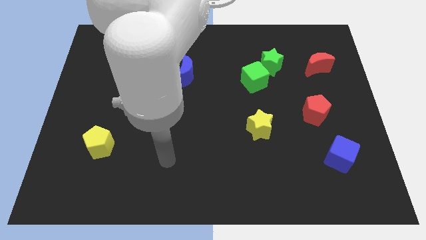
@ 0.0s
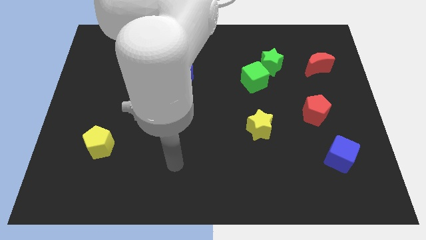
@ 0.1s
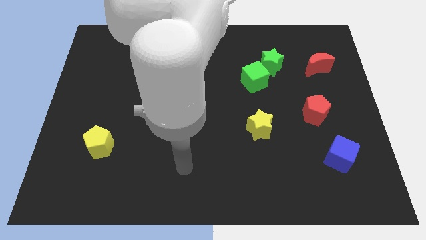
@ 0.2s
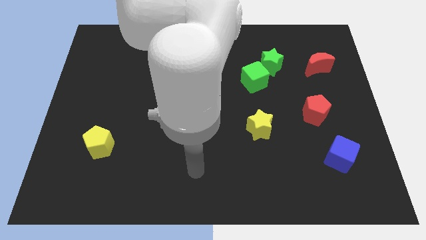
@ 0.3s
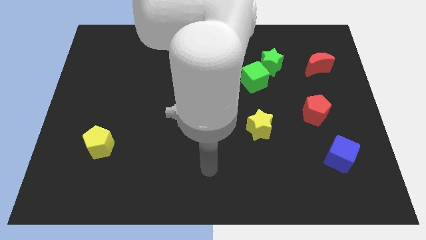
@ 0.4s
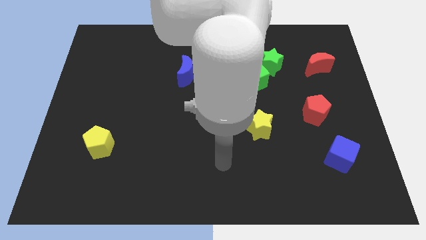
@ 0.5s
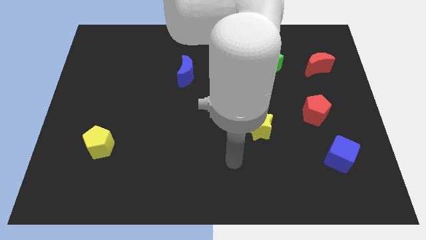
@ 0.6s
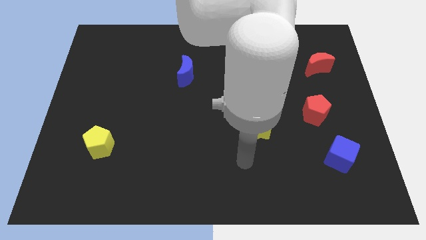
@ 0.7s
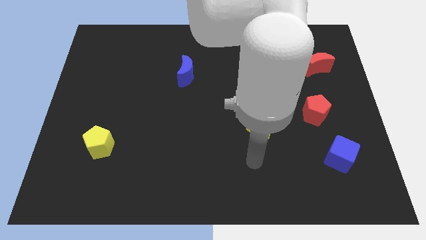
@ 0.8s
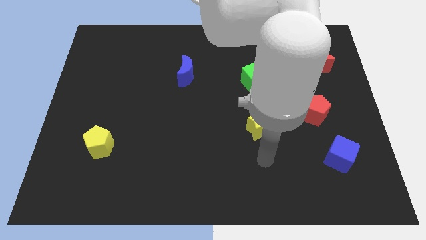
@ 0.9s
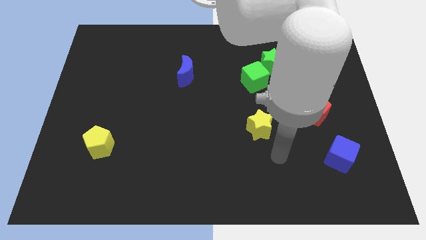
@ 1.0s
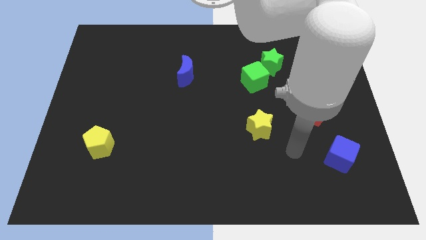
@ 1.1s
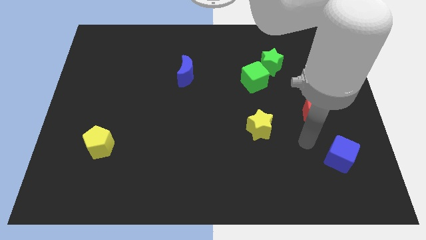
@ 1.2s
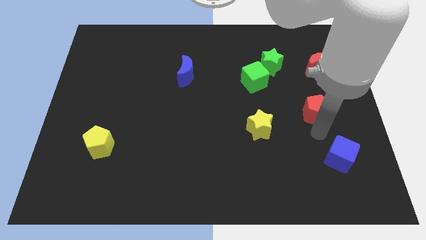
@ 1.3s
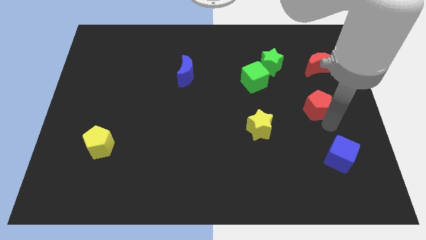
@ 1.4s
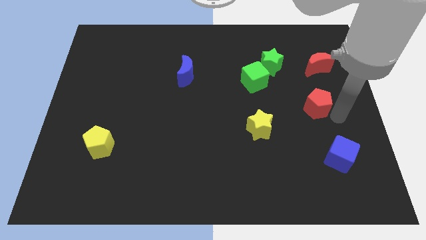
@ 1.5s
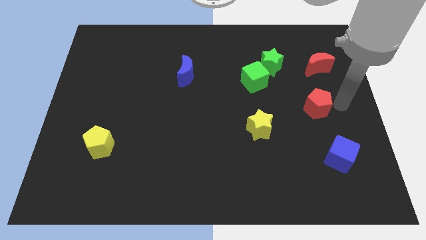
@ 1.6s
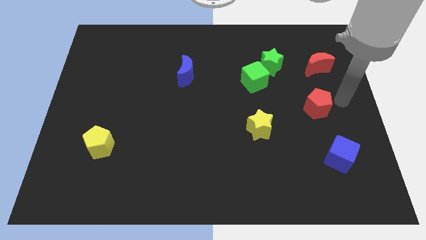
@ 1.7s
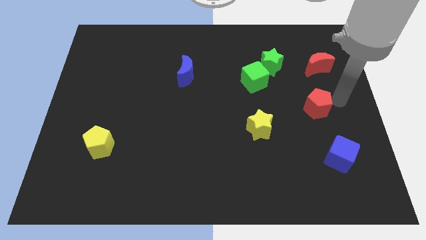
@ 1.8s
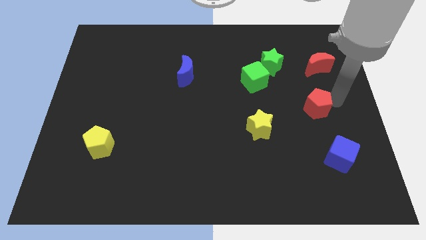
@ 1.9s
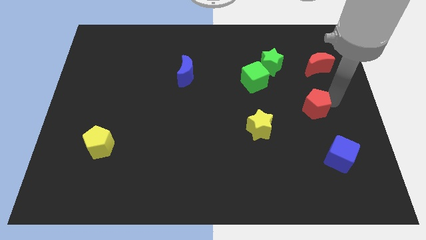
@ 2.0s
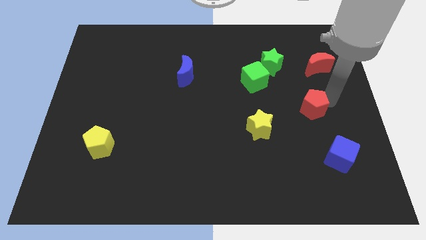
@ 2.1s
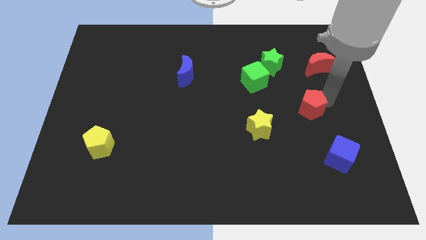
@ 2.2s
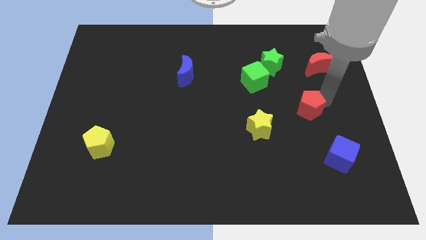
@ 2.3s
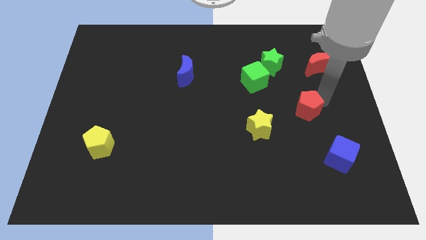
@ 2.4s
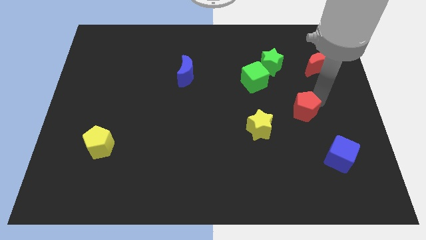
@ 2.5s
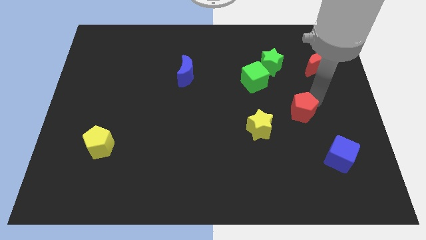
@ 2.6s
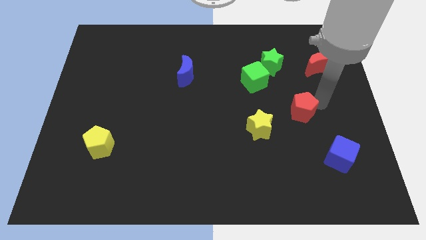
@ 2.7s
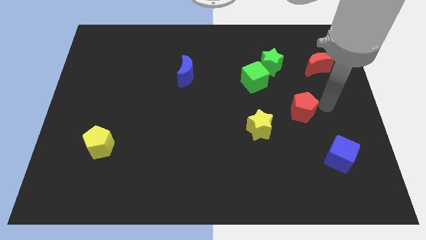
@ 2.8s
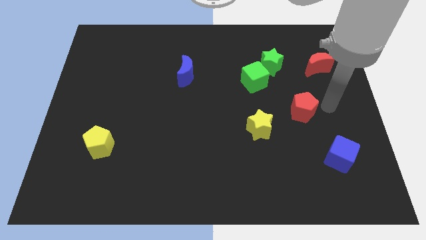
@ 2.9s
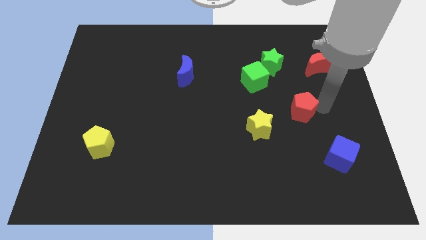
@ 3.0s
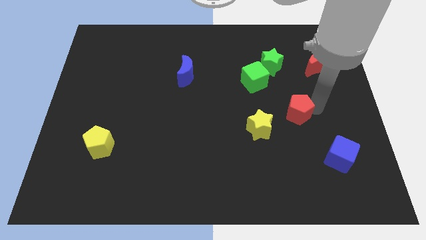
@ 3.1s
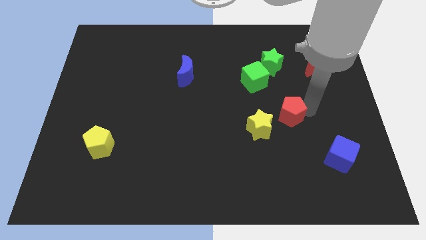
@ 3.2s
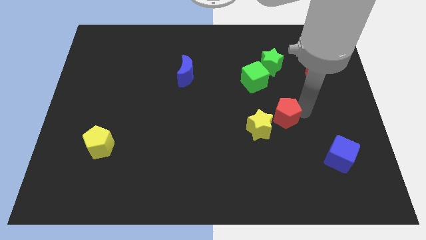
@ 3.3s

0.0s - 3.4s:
push the red pentagon left a bit

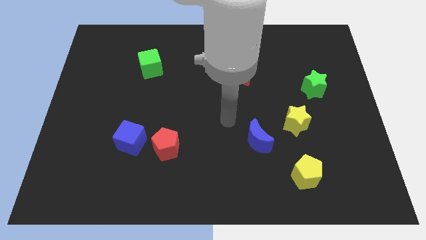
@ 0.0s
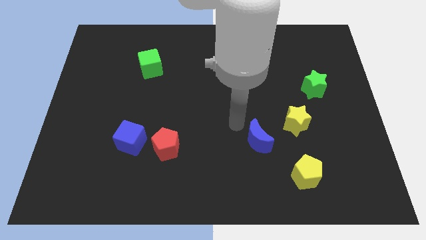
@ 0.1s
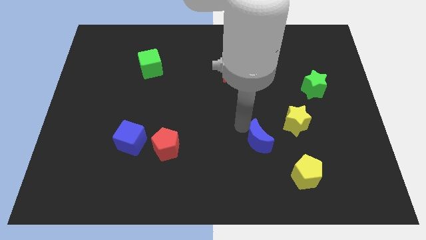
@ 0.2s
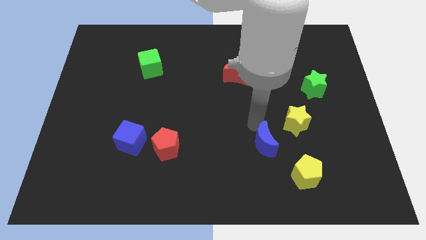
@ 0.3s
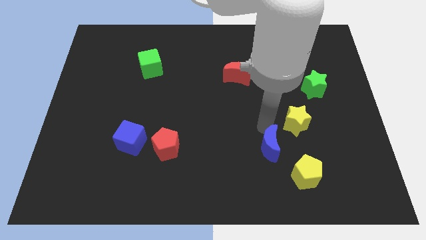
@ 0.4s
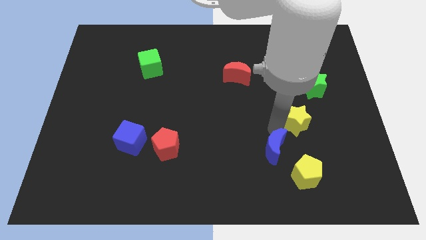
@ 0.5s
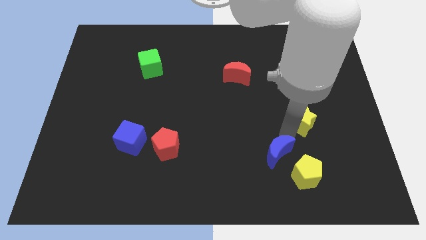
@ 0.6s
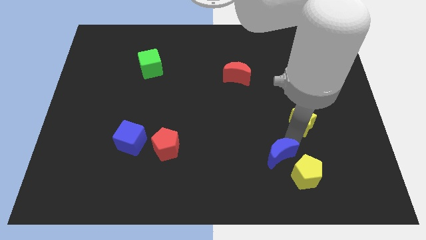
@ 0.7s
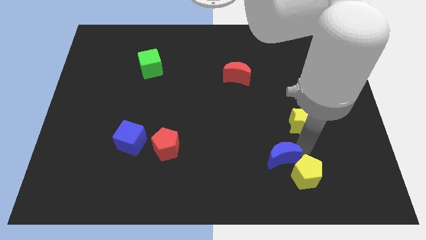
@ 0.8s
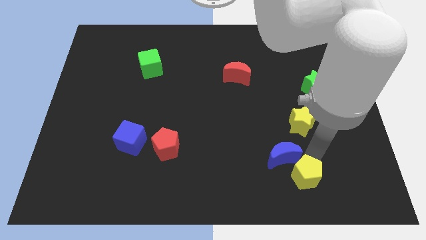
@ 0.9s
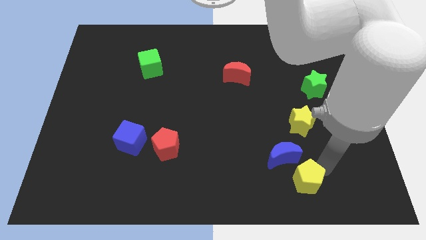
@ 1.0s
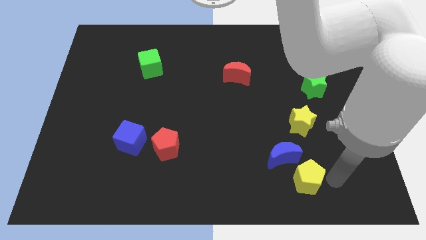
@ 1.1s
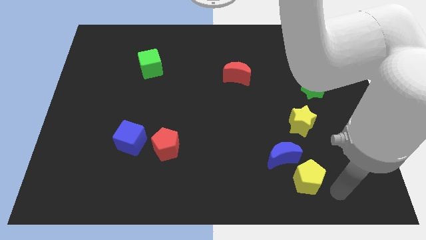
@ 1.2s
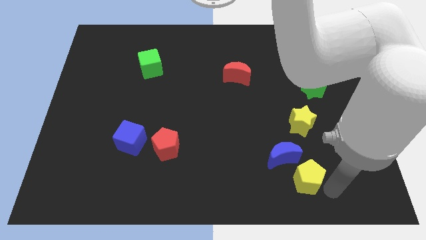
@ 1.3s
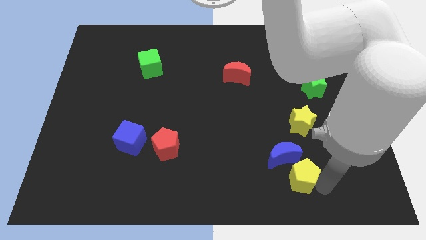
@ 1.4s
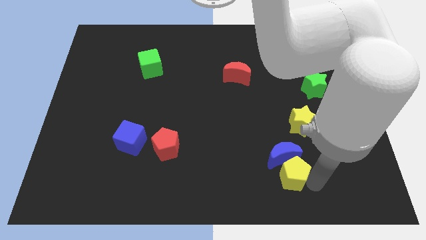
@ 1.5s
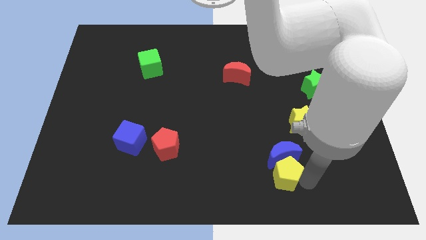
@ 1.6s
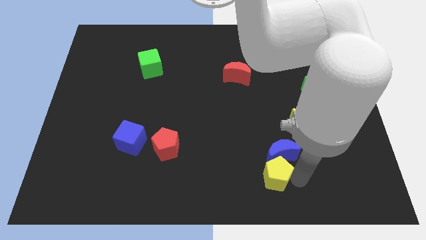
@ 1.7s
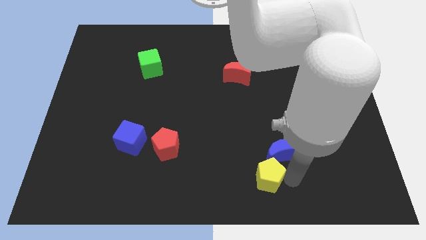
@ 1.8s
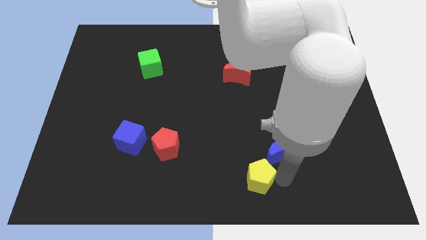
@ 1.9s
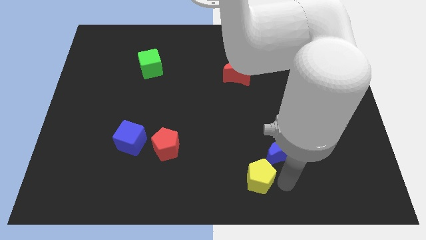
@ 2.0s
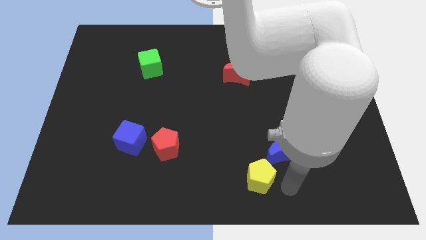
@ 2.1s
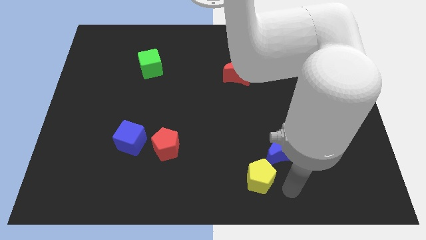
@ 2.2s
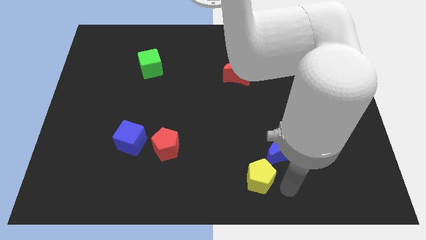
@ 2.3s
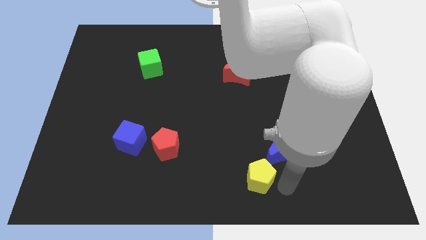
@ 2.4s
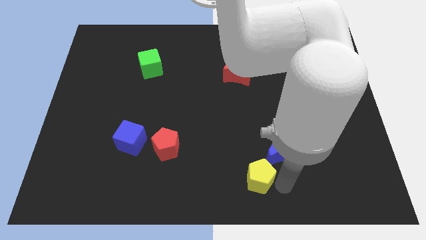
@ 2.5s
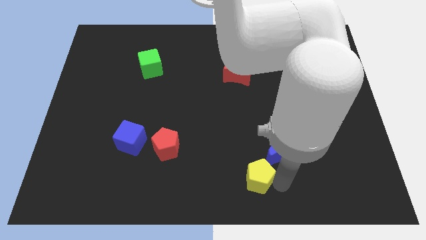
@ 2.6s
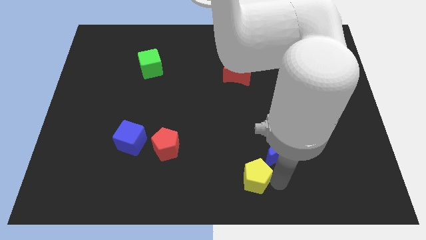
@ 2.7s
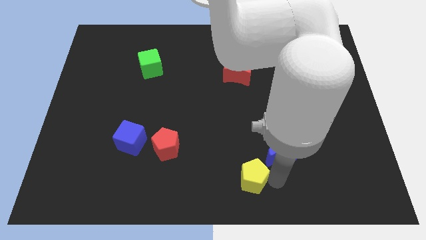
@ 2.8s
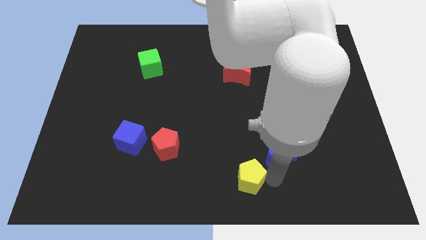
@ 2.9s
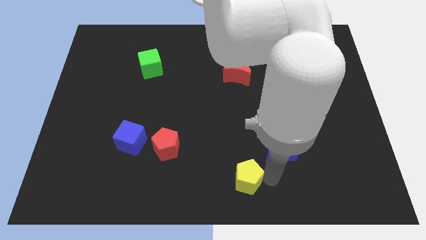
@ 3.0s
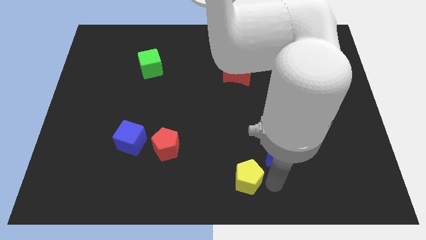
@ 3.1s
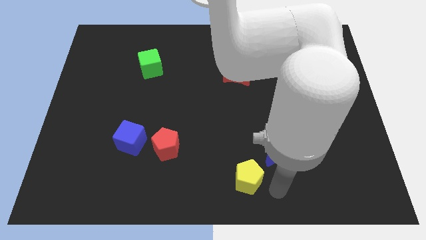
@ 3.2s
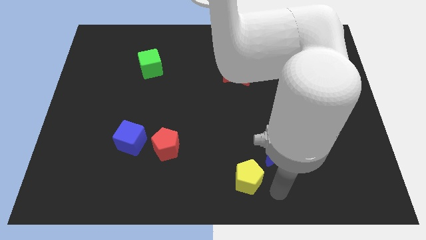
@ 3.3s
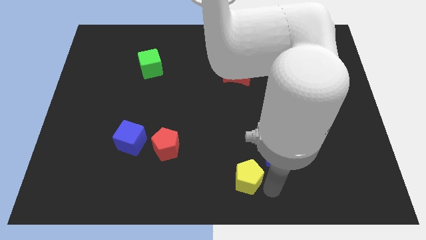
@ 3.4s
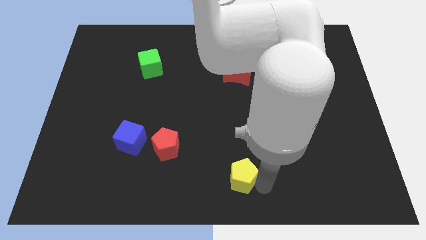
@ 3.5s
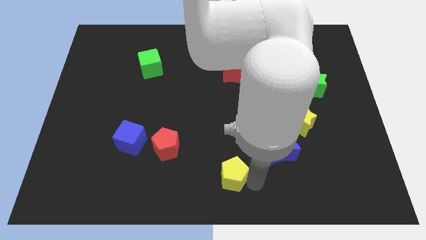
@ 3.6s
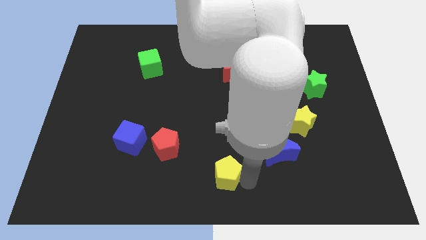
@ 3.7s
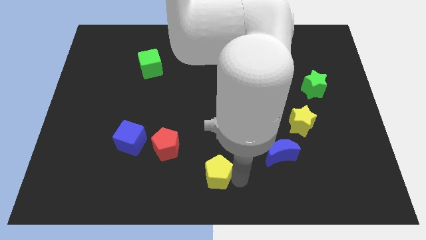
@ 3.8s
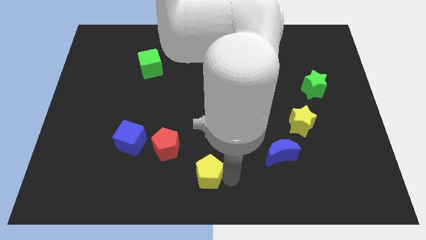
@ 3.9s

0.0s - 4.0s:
move the yellow pentagon to the left

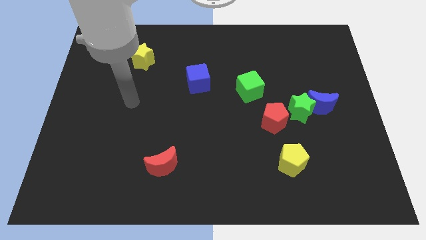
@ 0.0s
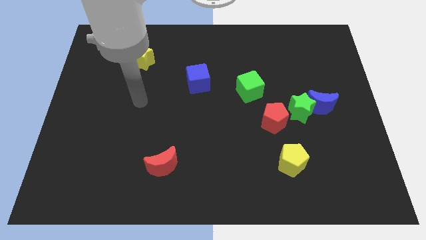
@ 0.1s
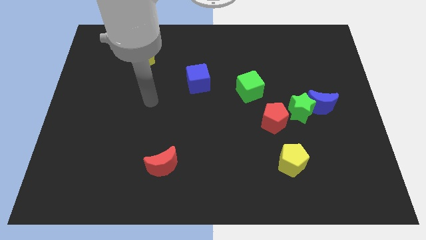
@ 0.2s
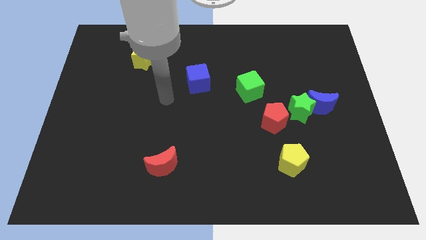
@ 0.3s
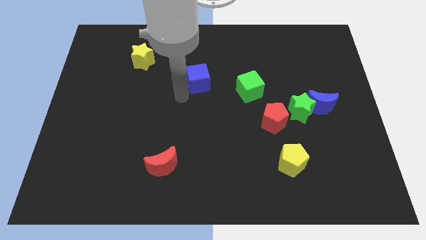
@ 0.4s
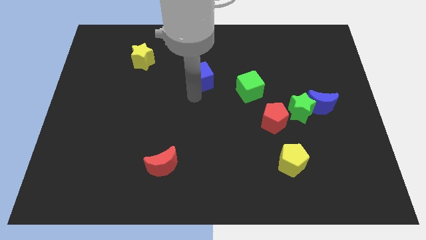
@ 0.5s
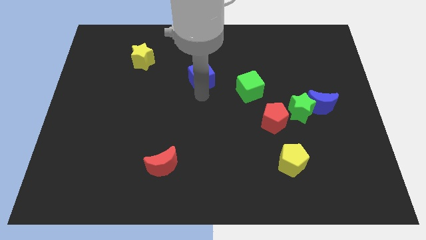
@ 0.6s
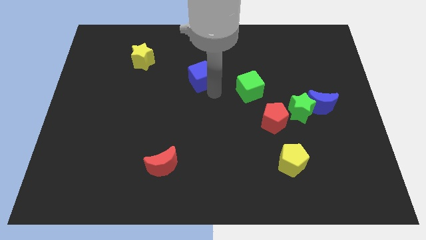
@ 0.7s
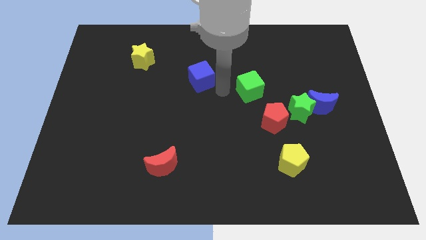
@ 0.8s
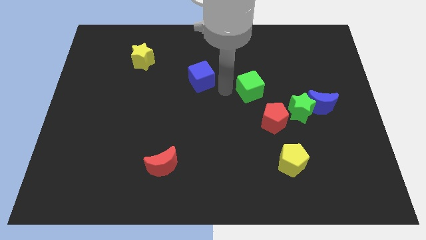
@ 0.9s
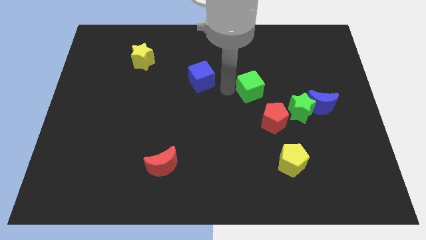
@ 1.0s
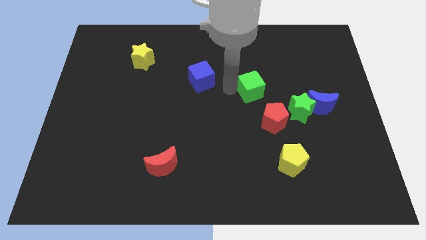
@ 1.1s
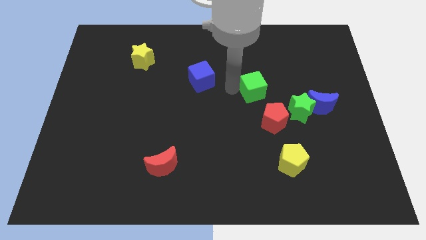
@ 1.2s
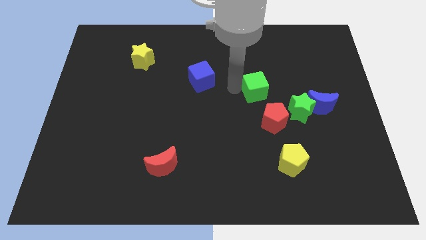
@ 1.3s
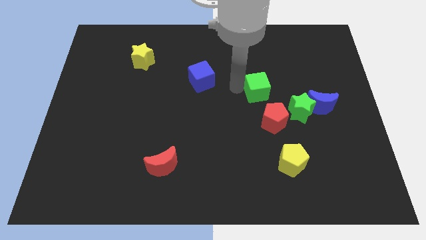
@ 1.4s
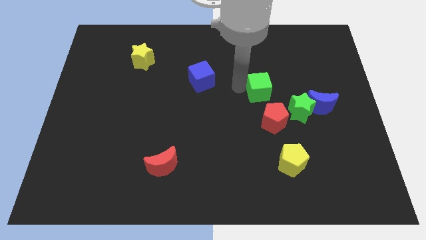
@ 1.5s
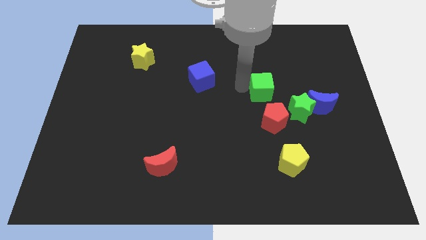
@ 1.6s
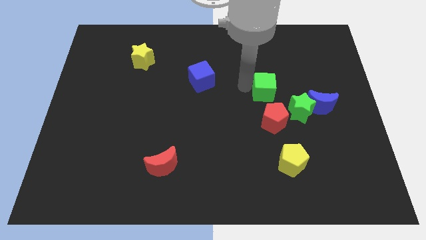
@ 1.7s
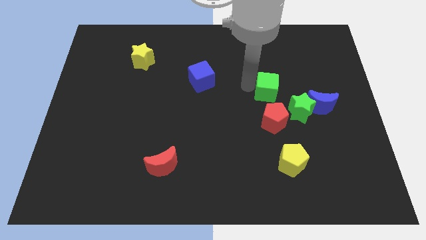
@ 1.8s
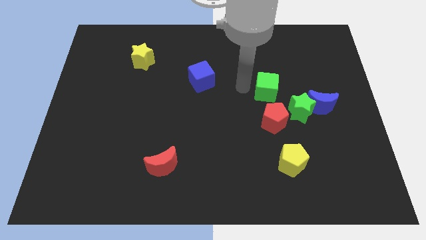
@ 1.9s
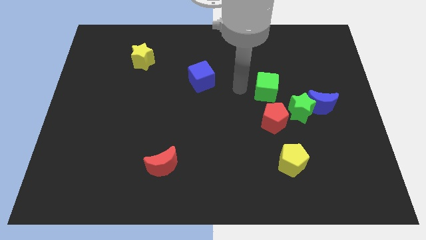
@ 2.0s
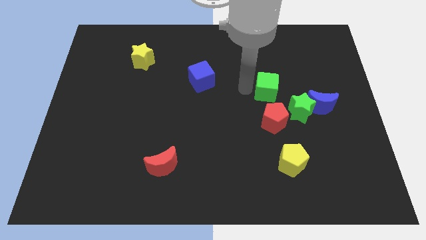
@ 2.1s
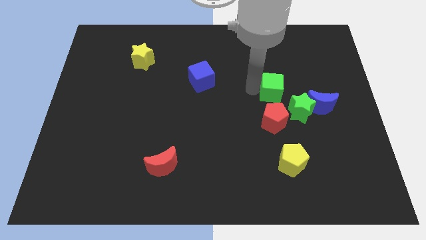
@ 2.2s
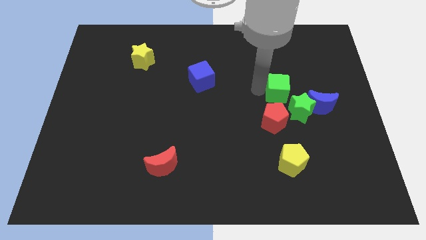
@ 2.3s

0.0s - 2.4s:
slightly push the green cube to the right
